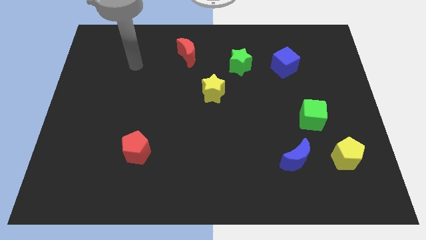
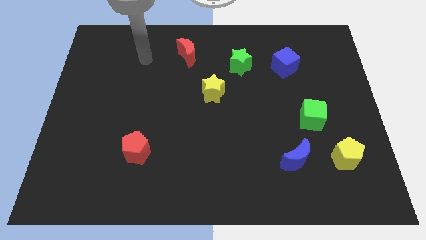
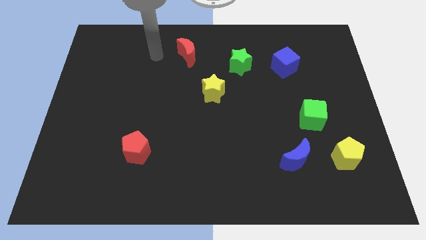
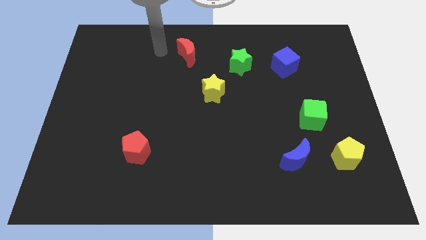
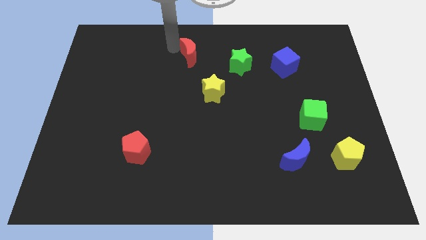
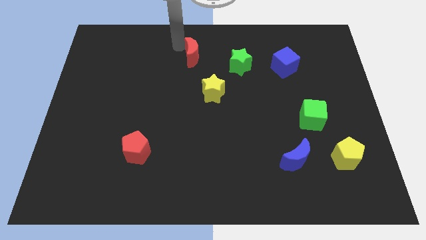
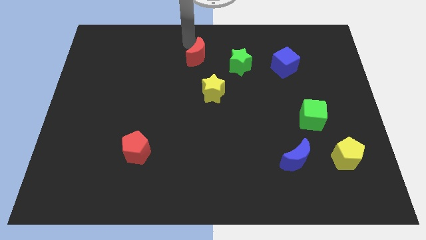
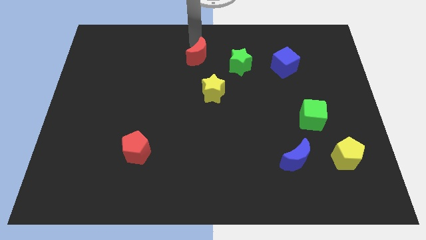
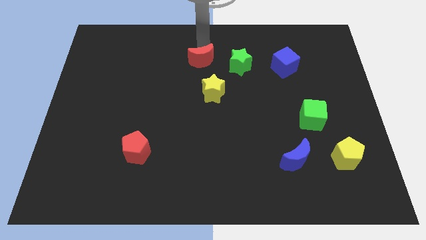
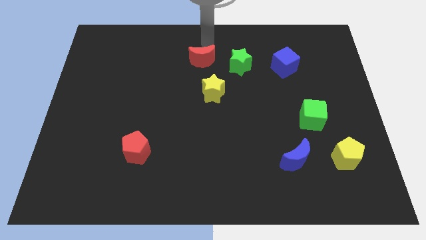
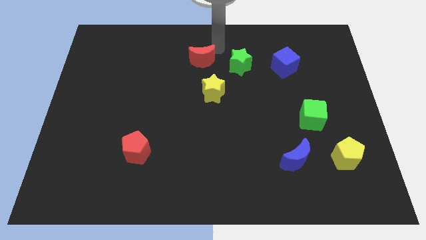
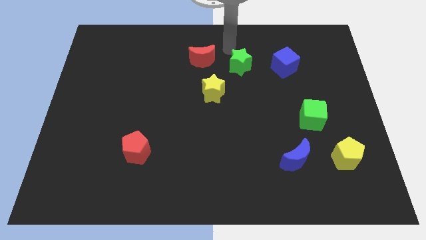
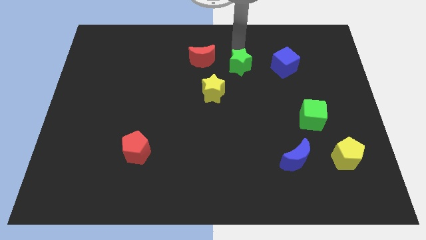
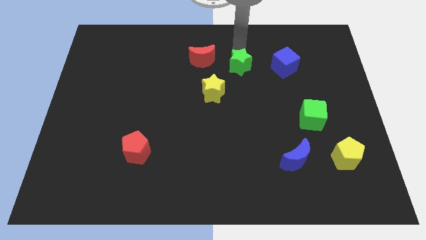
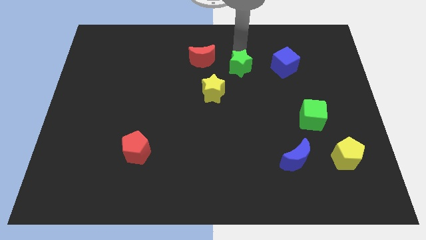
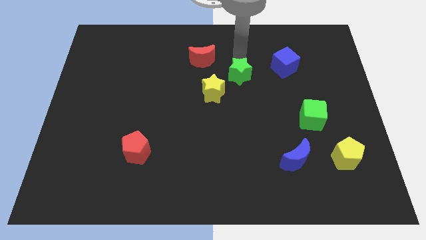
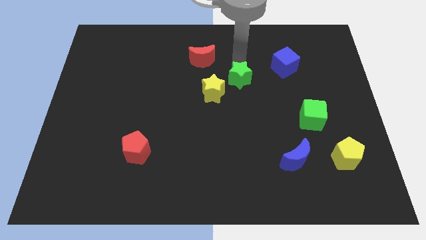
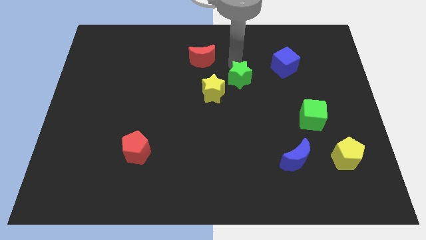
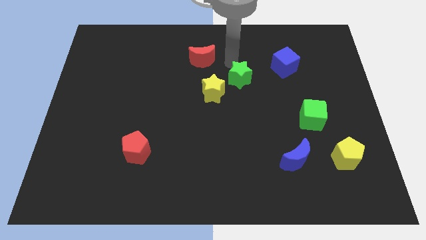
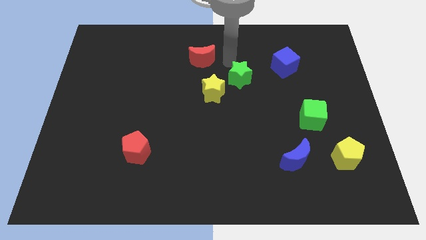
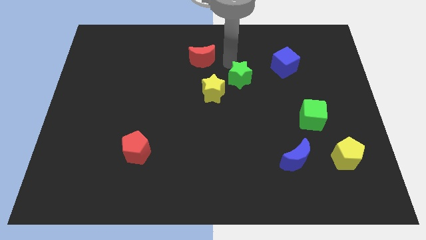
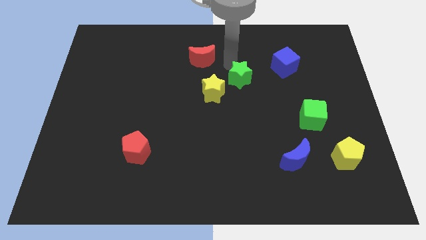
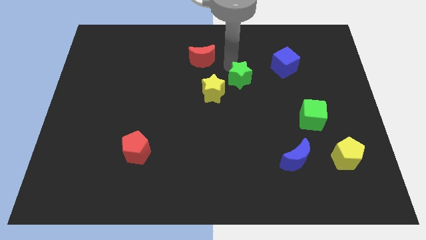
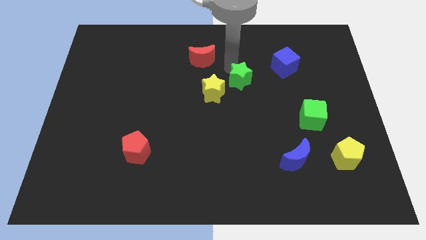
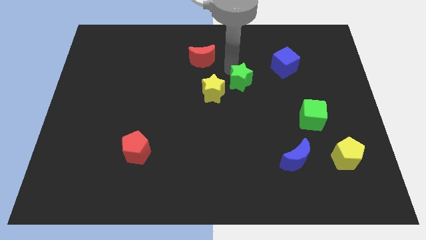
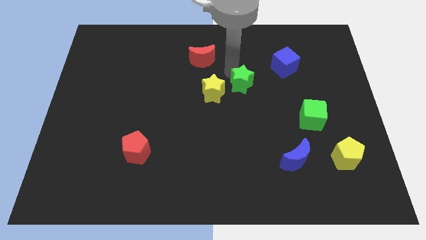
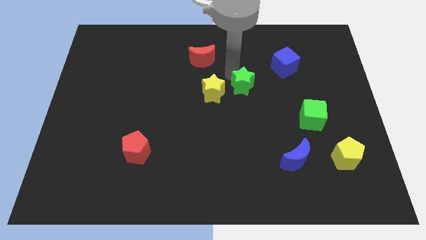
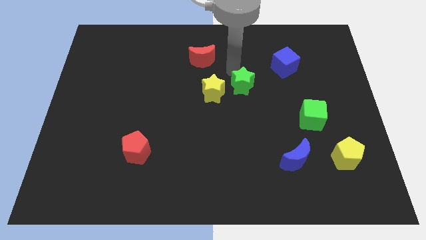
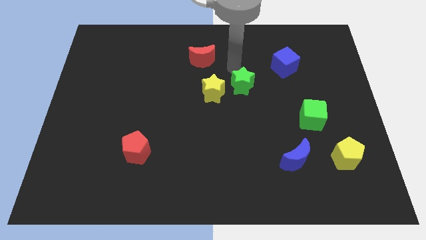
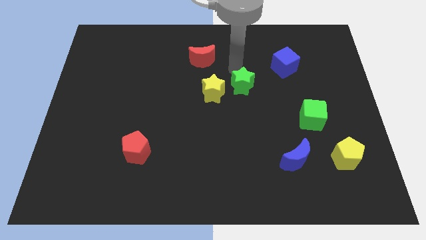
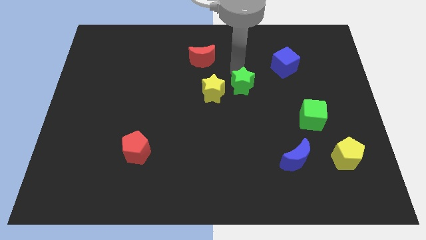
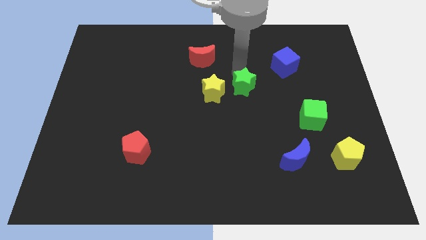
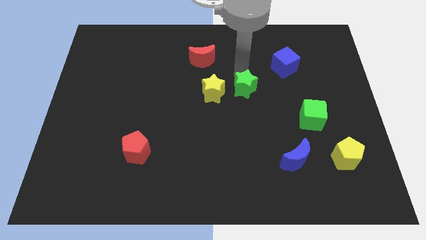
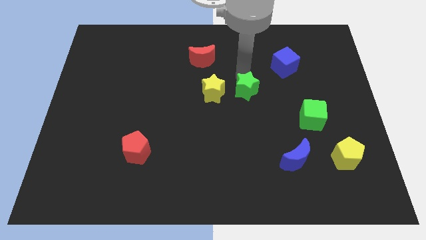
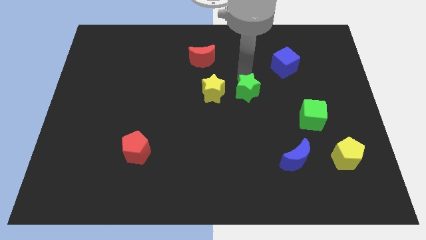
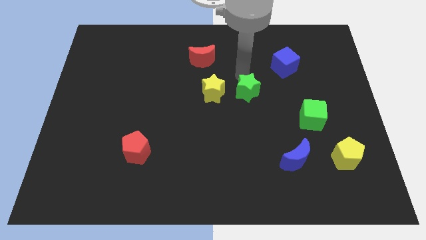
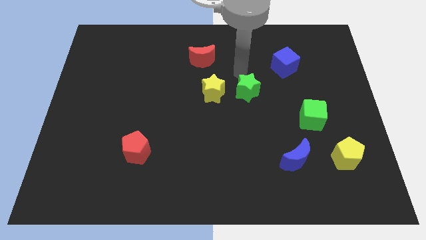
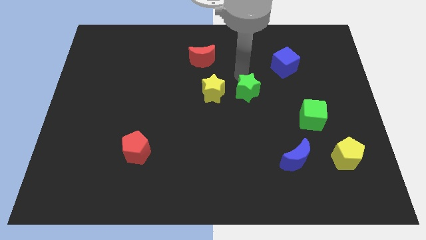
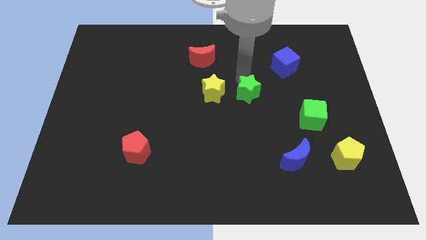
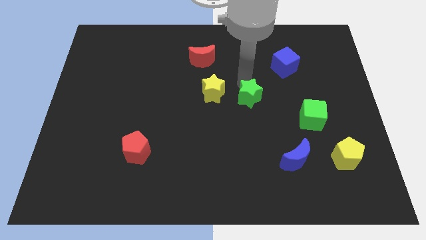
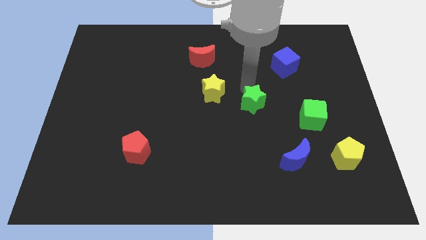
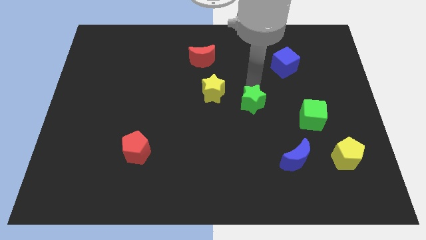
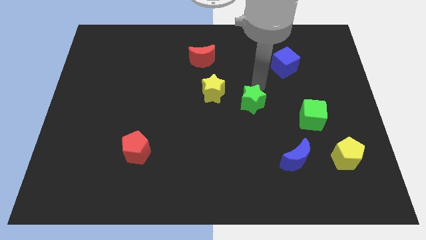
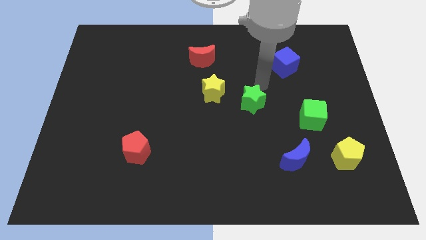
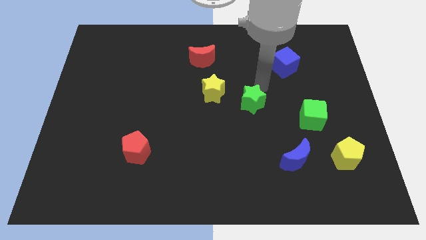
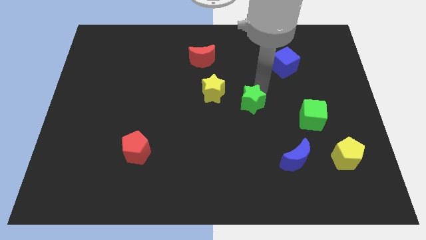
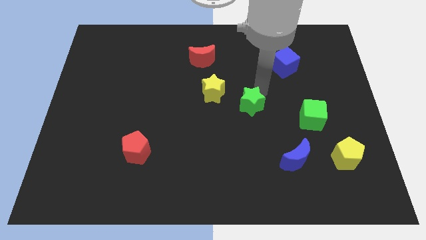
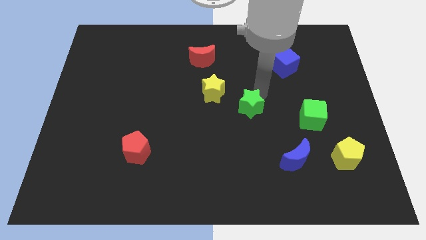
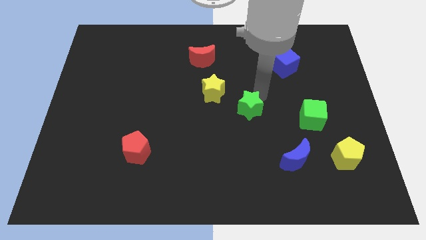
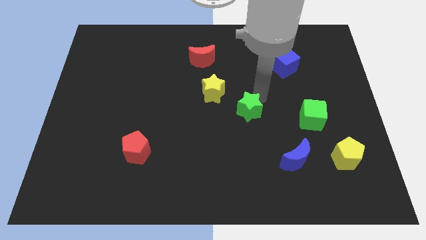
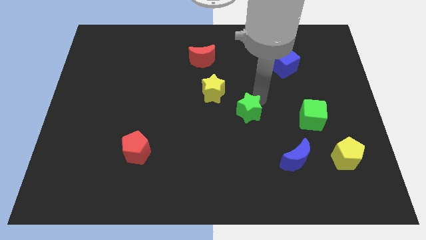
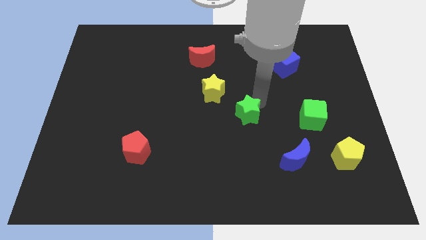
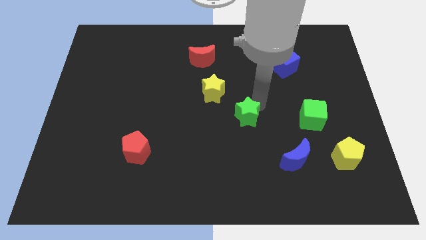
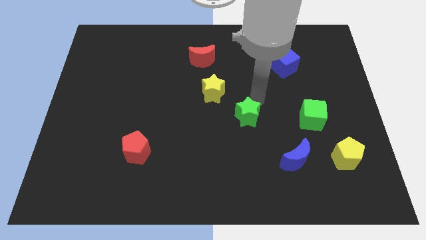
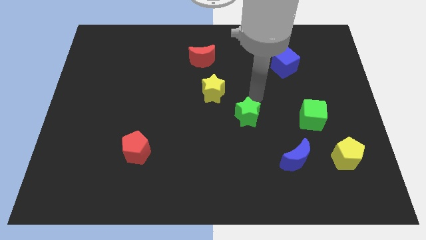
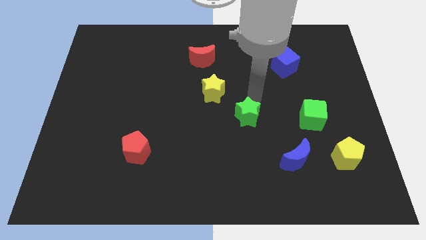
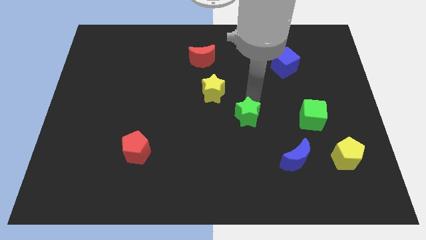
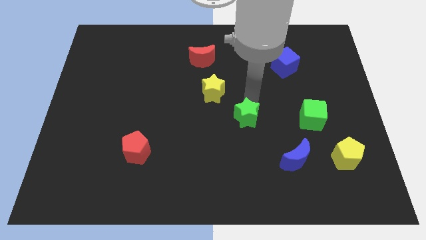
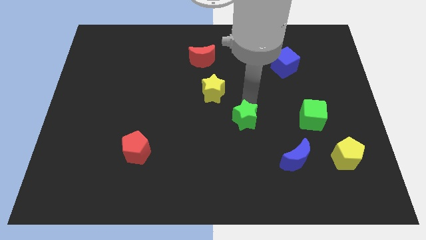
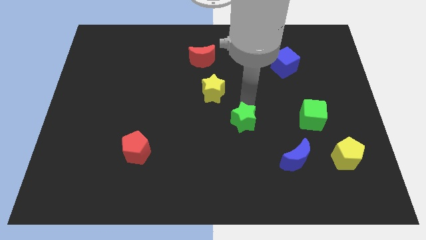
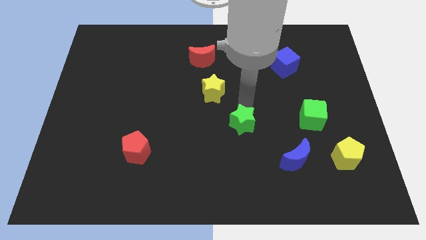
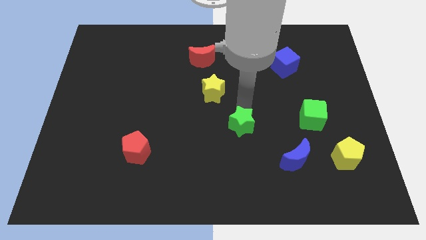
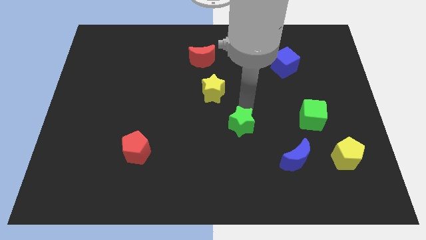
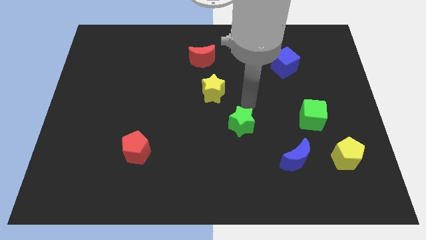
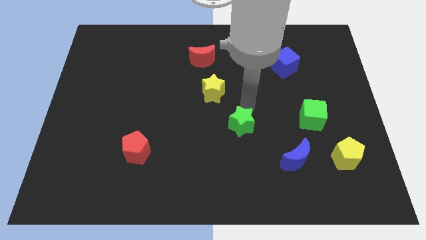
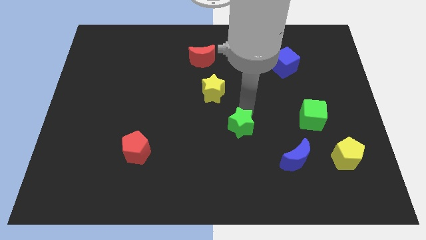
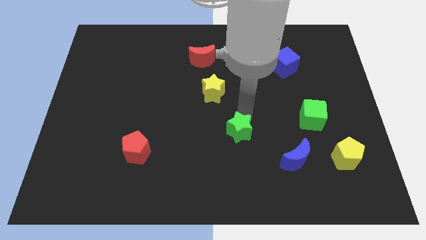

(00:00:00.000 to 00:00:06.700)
slide the green star downwards

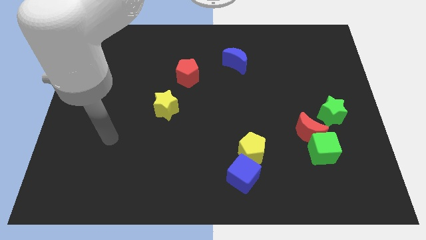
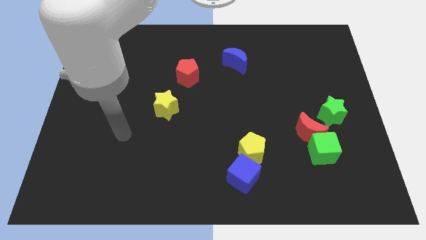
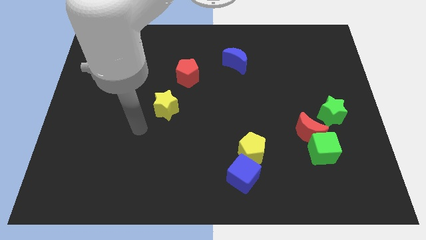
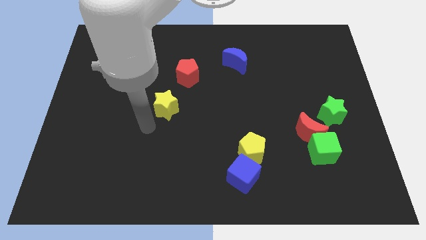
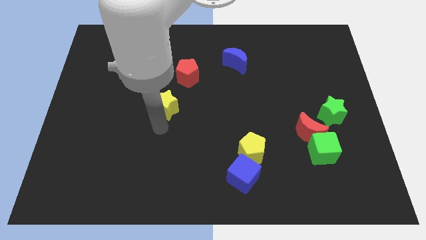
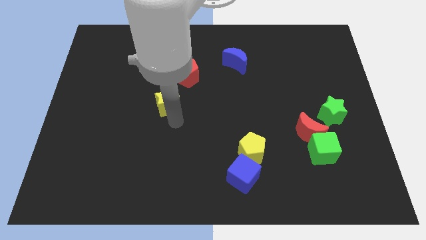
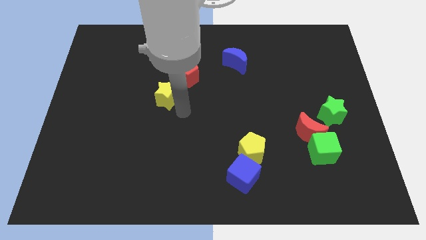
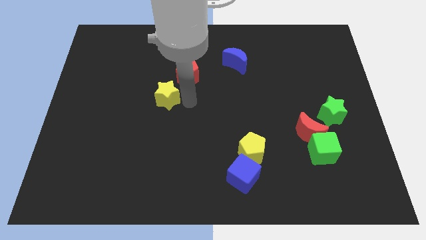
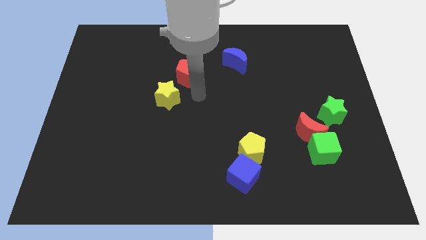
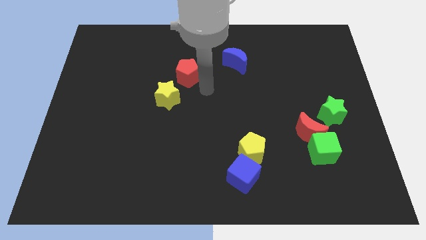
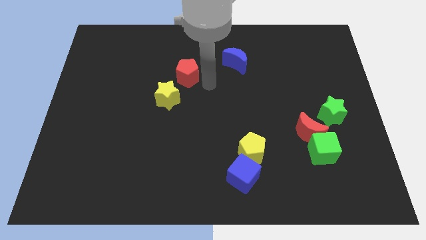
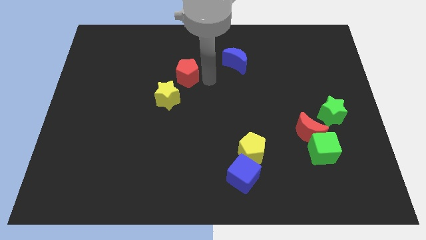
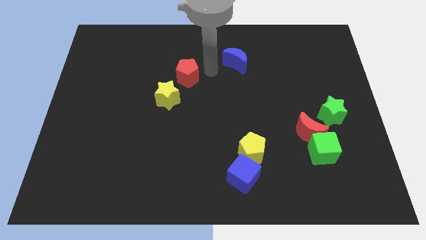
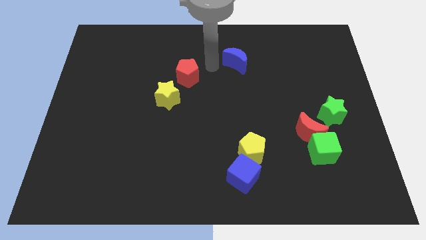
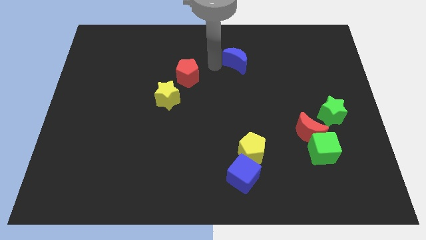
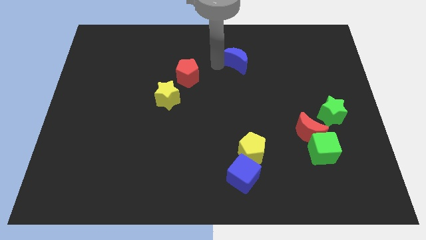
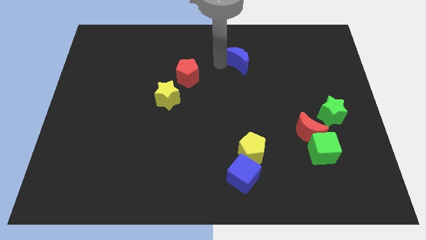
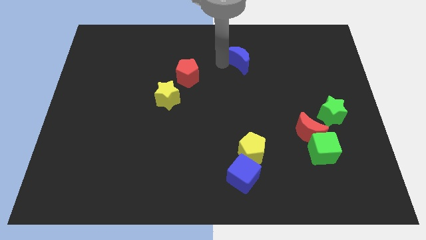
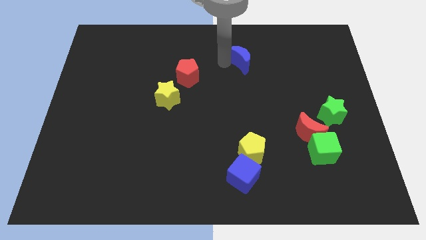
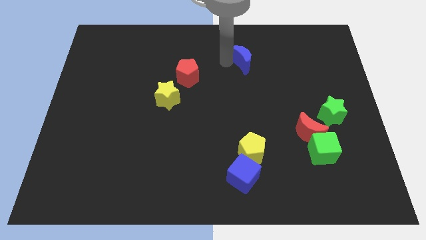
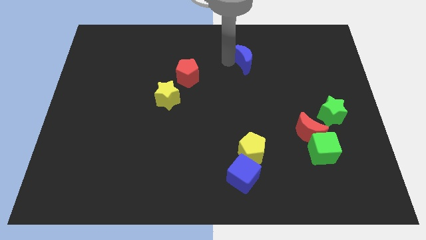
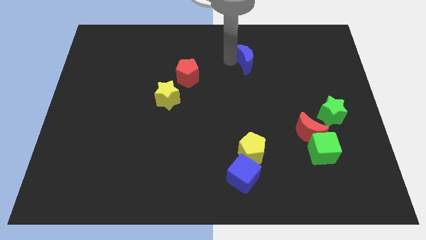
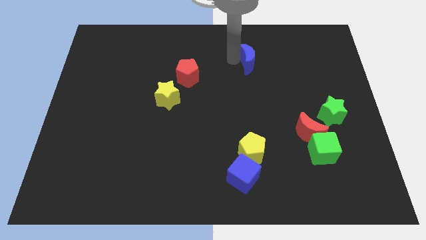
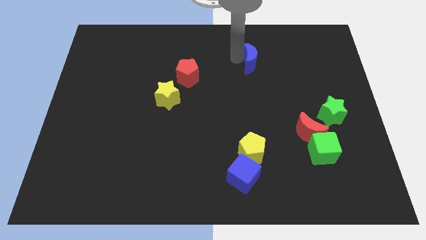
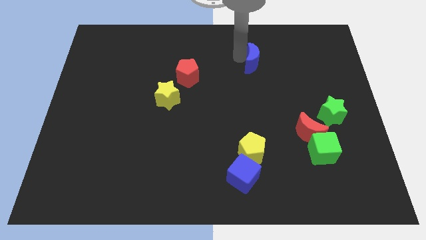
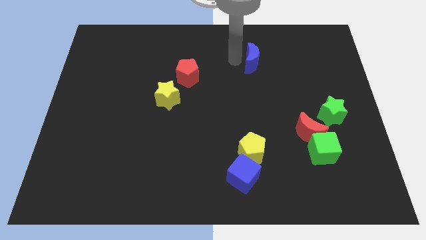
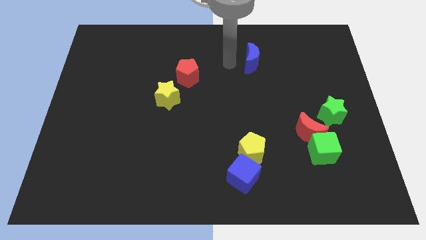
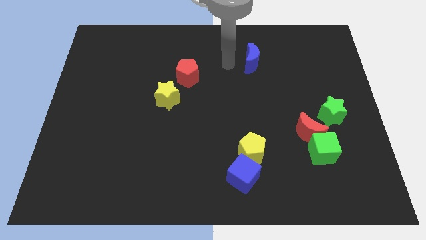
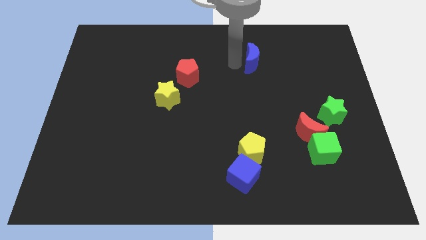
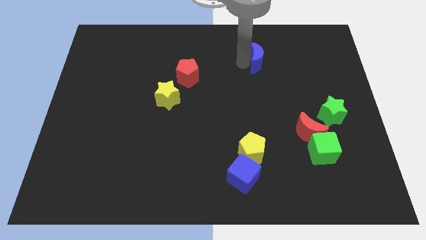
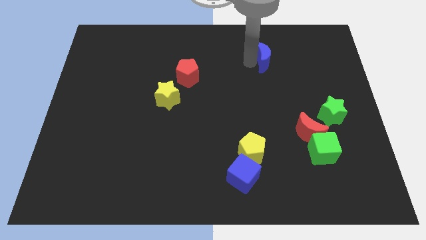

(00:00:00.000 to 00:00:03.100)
slightly slide the blue moon to the right
